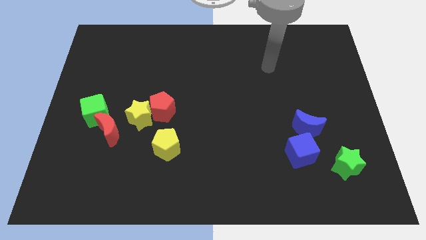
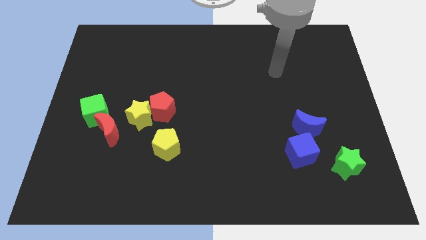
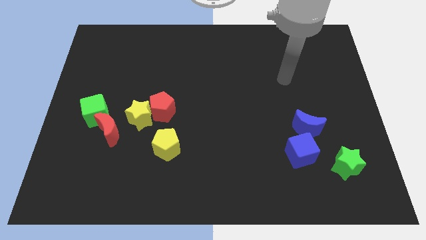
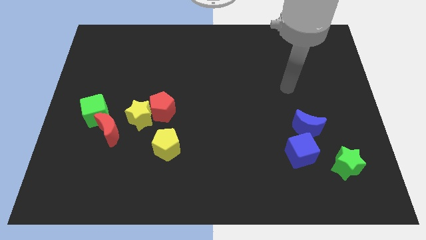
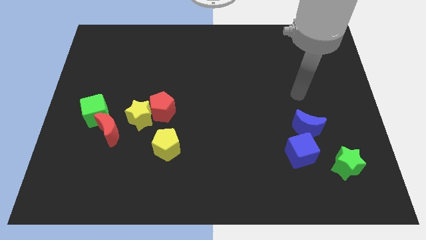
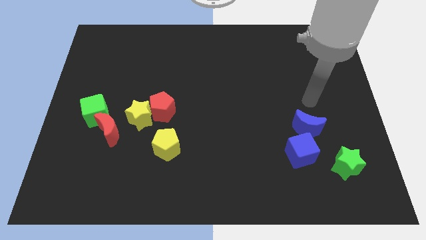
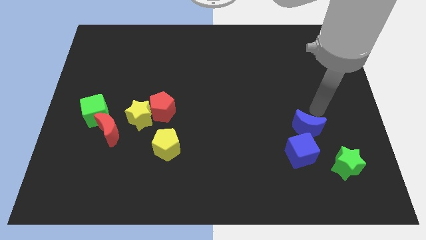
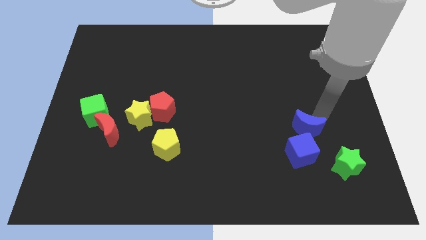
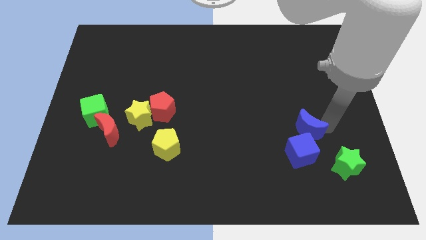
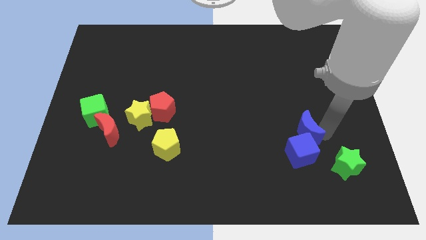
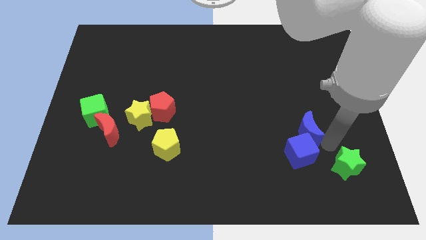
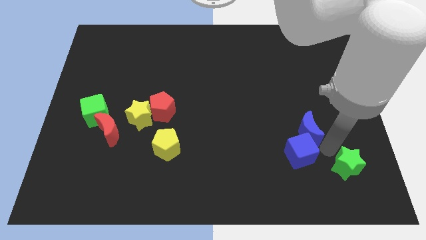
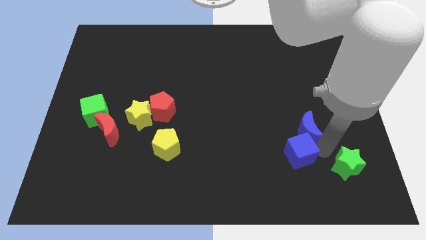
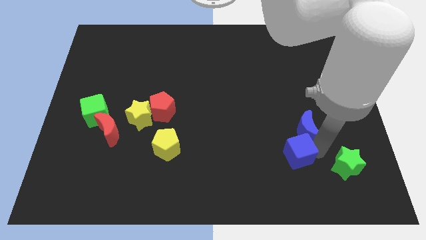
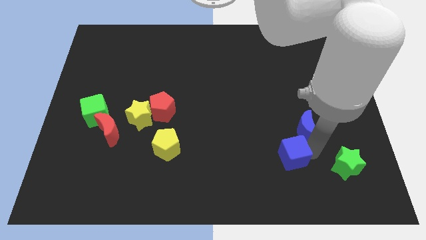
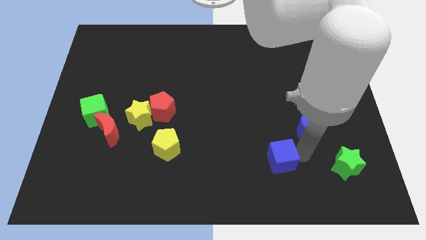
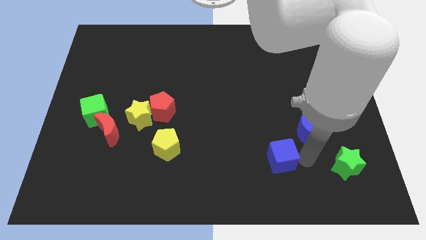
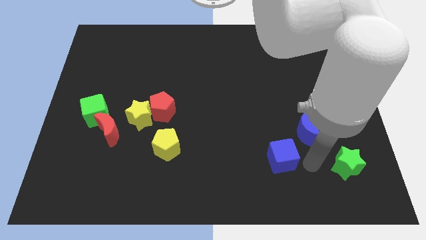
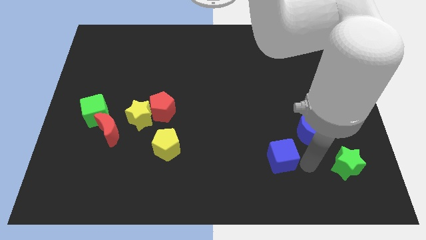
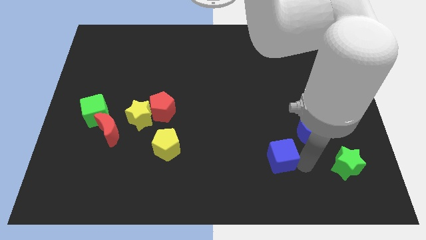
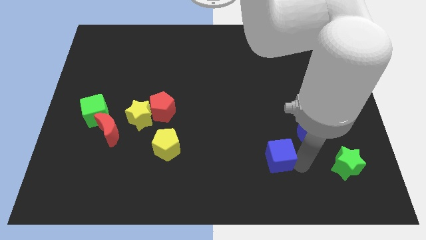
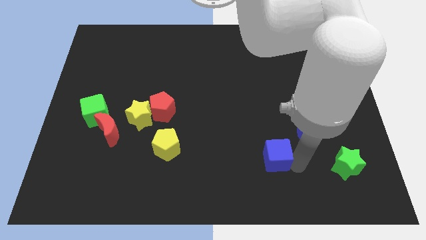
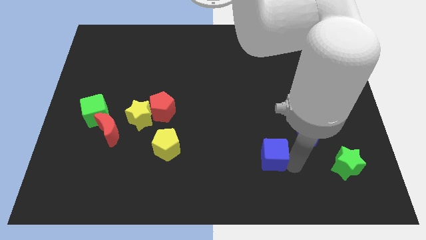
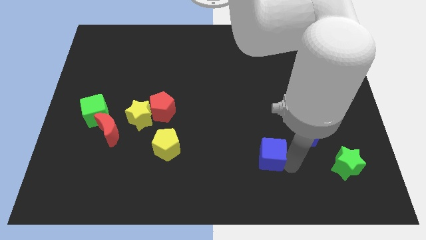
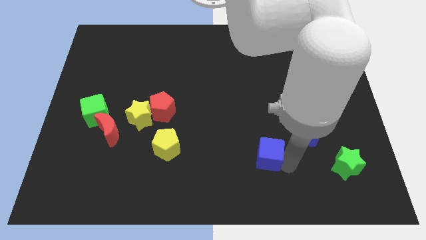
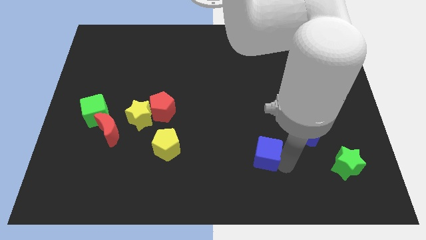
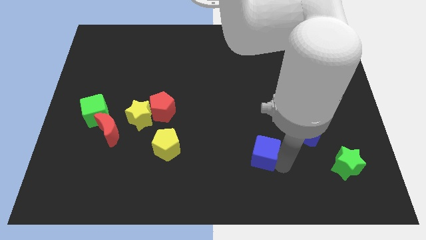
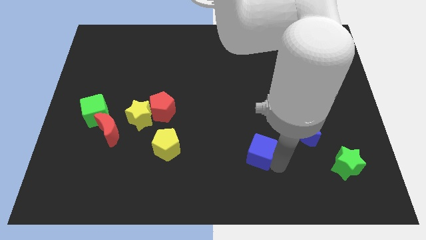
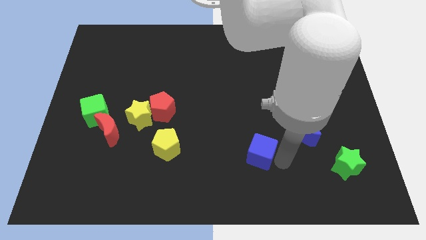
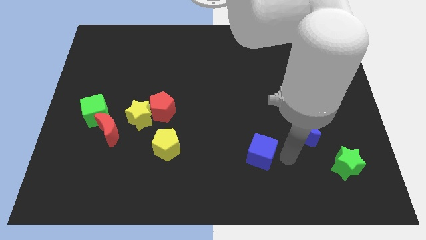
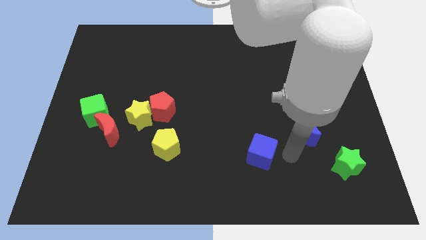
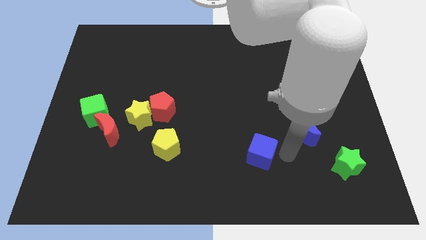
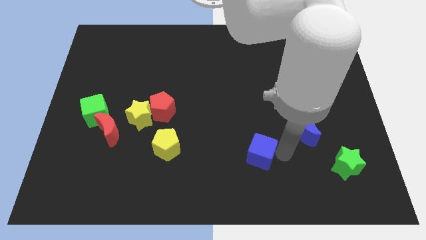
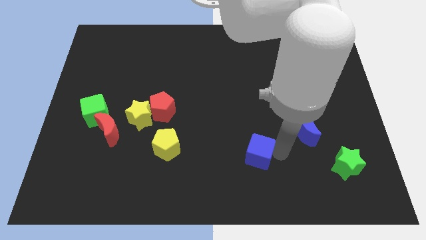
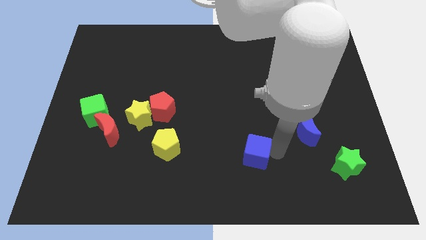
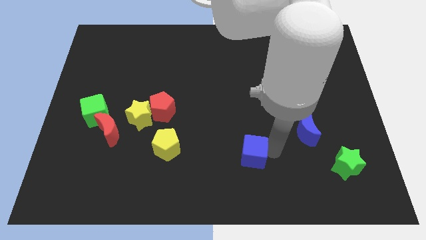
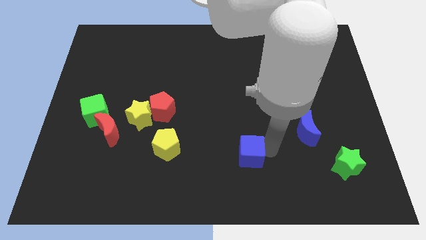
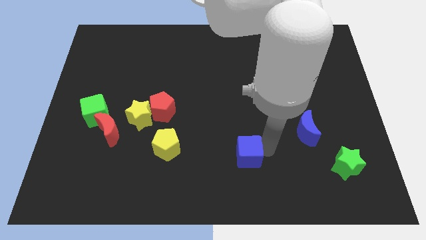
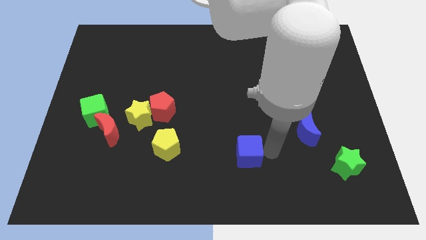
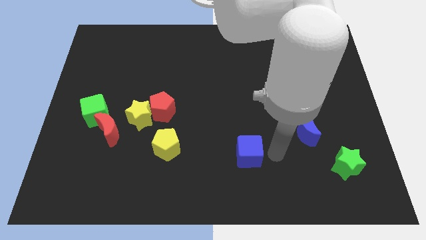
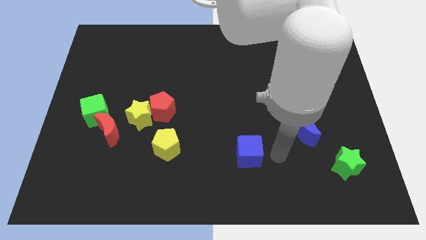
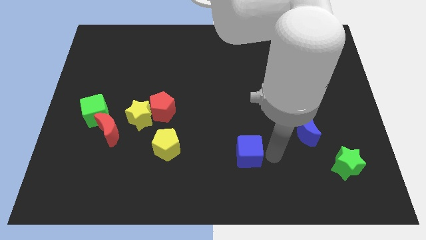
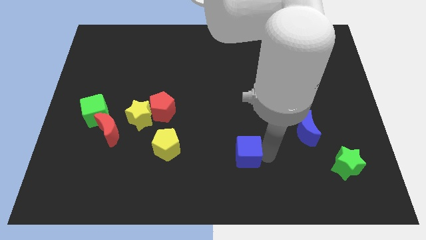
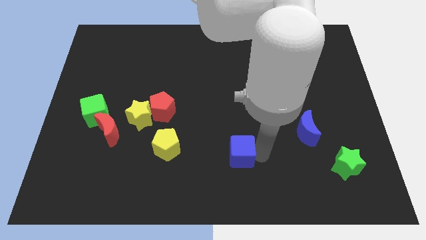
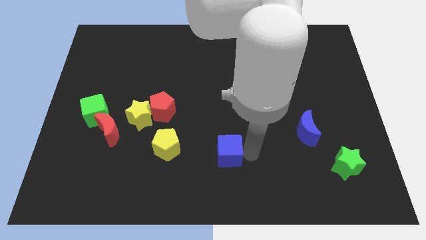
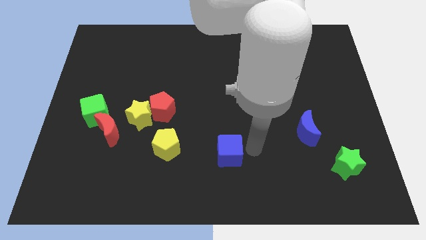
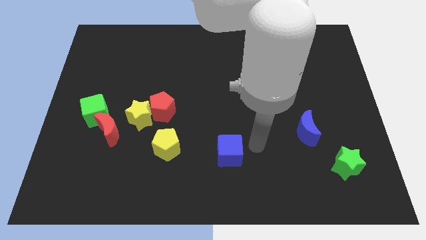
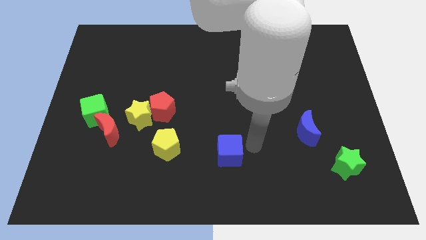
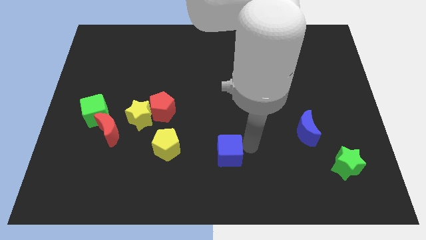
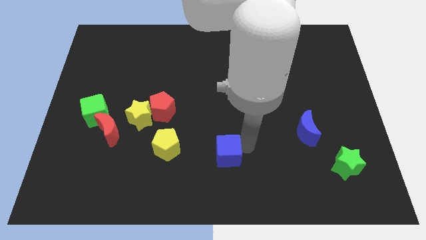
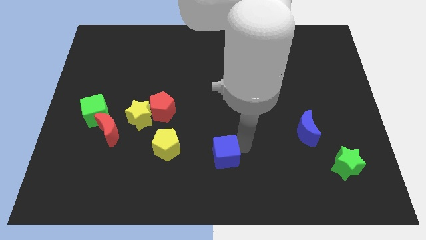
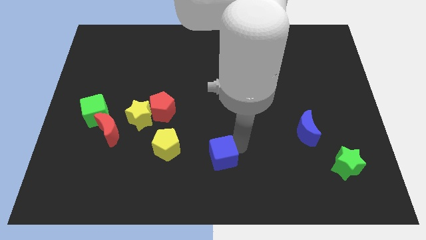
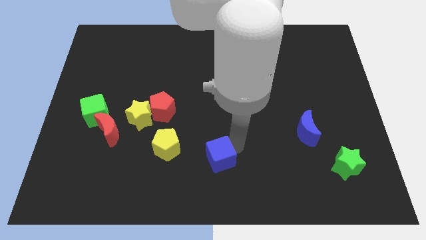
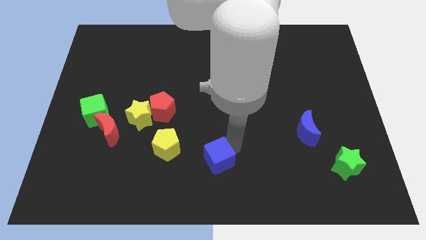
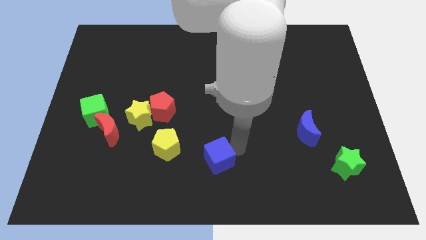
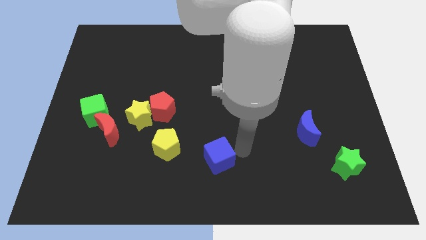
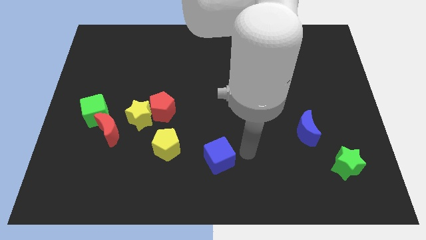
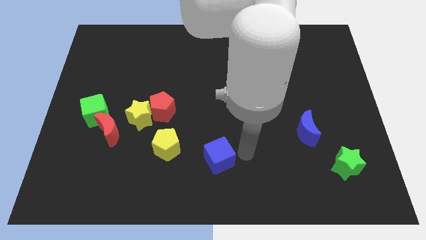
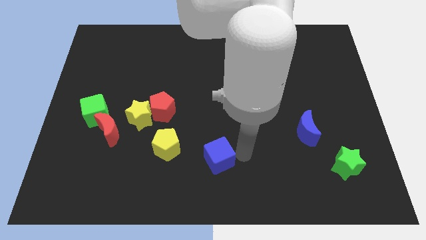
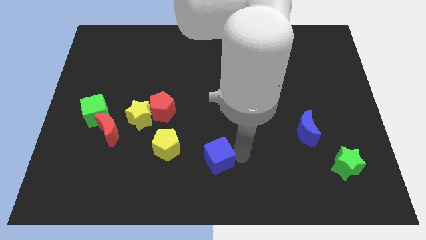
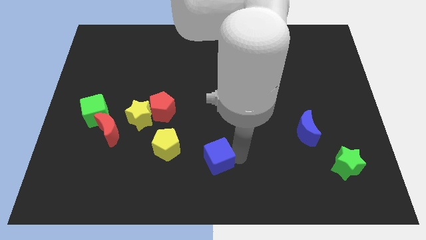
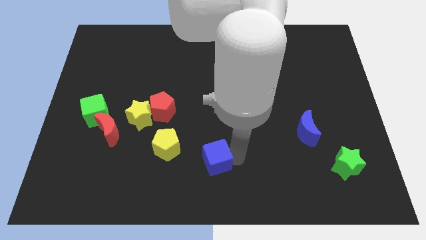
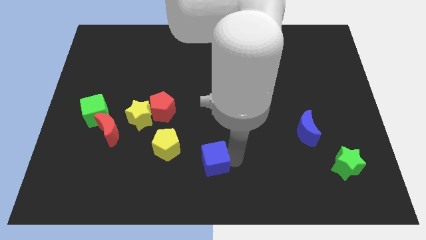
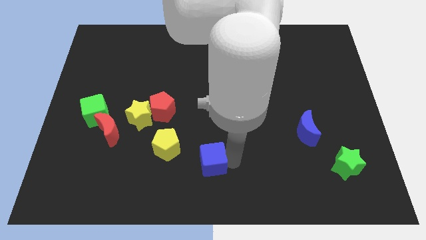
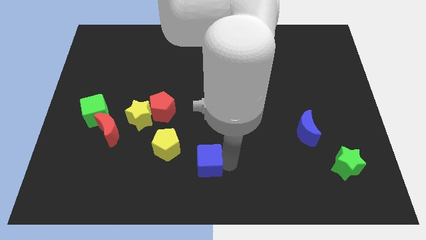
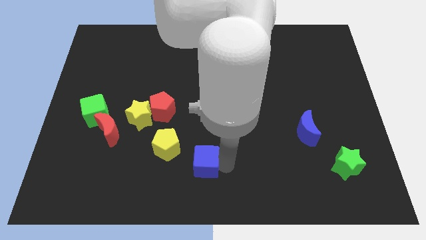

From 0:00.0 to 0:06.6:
push the blue cube left

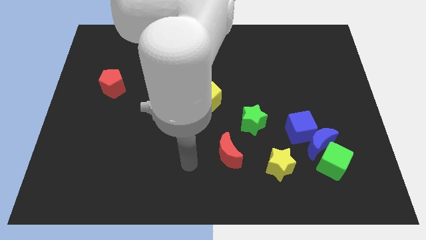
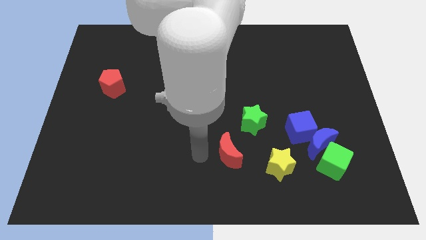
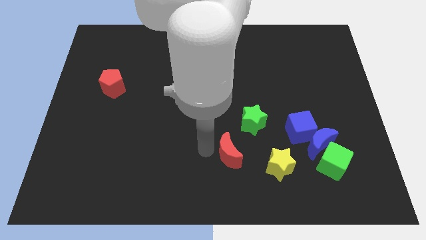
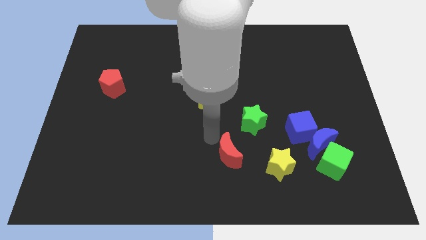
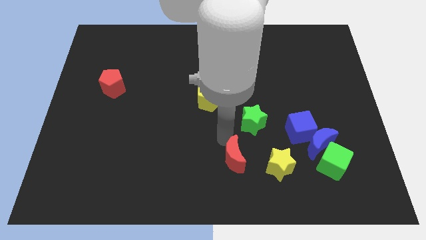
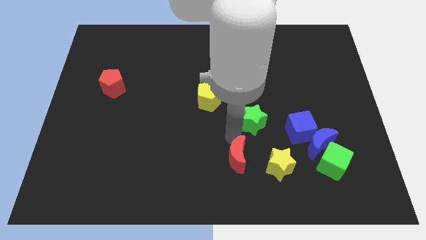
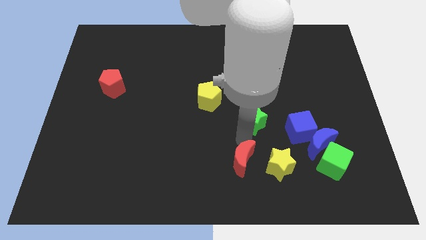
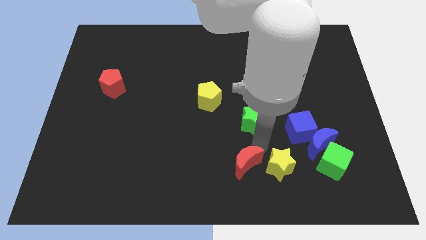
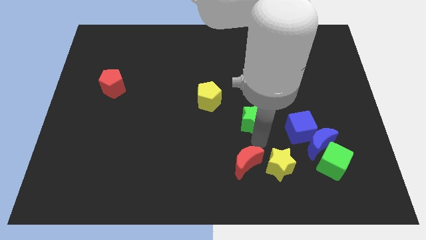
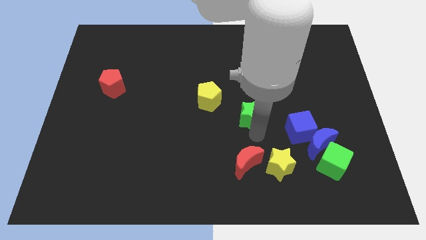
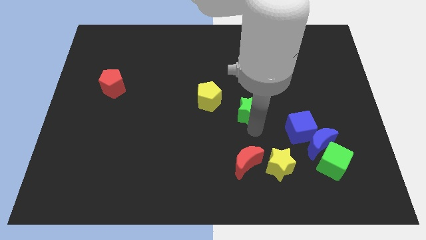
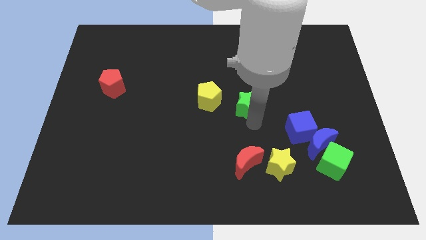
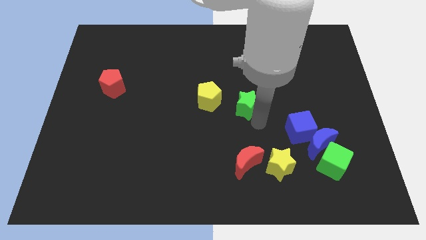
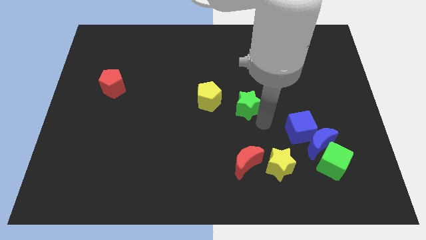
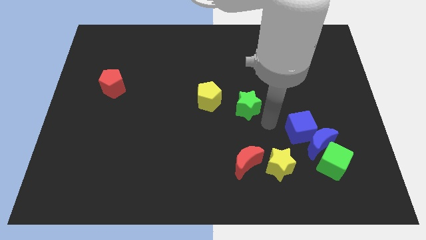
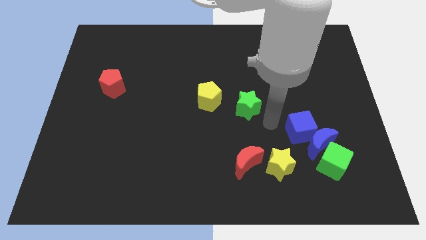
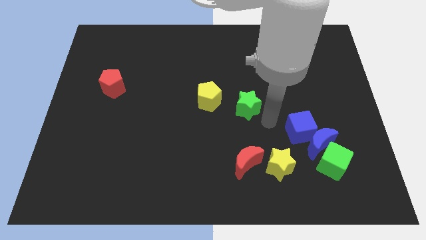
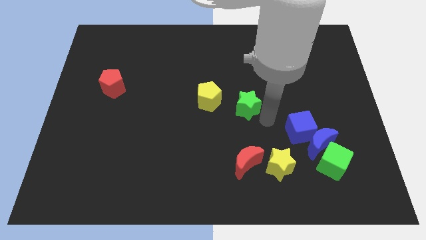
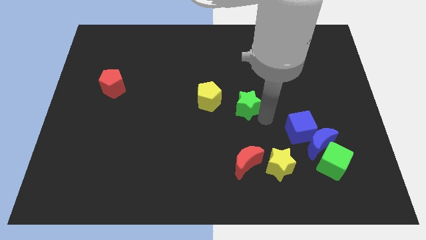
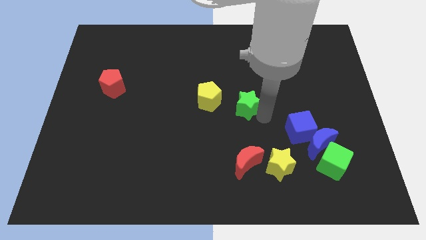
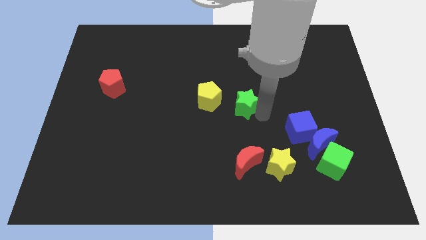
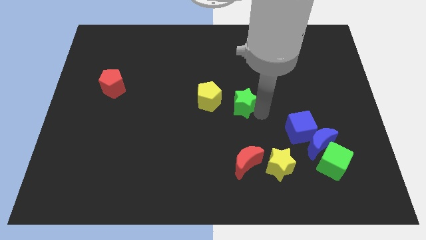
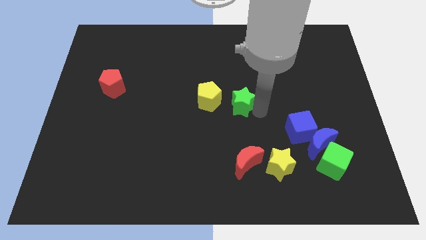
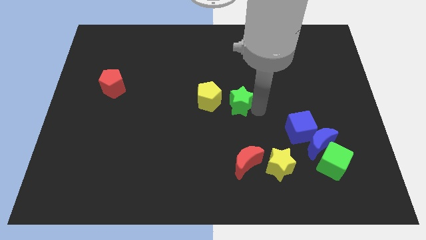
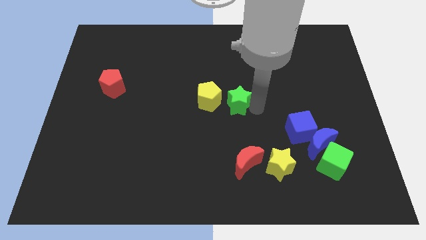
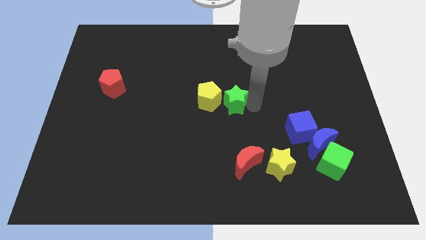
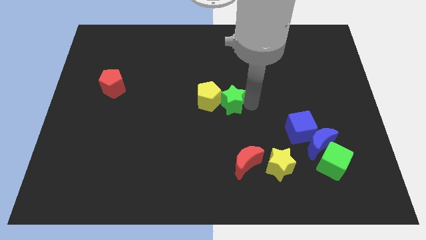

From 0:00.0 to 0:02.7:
move the green star a bit up and then left
